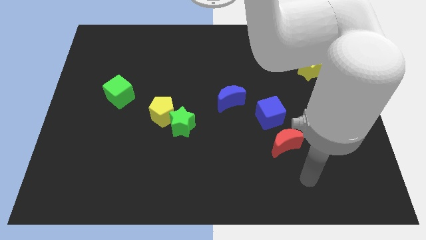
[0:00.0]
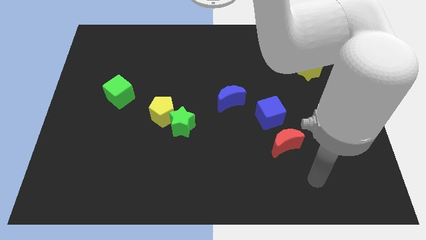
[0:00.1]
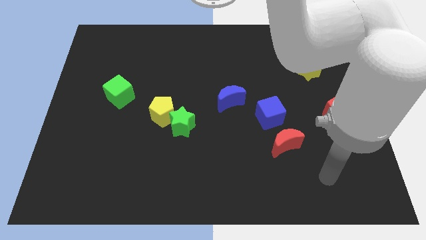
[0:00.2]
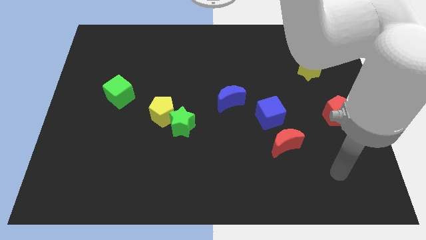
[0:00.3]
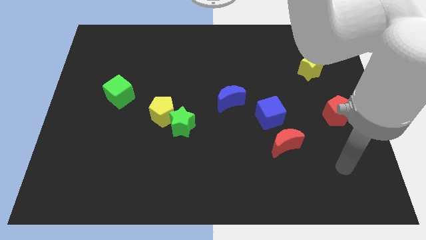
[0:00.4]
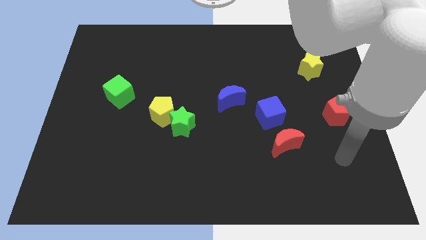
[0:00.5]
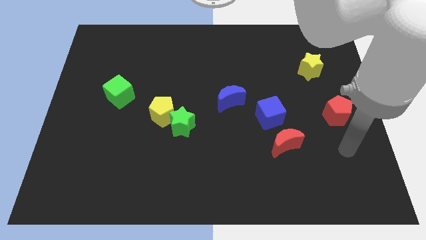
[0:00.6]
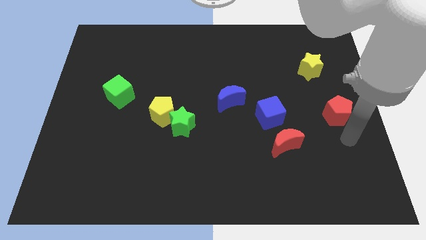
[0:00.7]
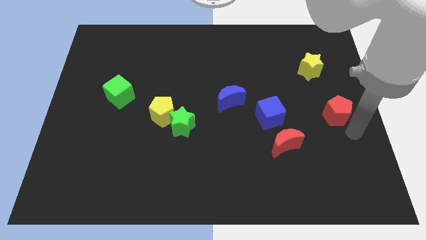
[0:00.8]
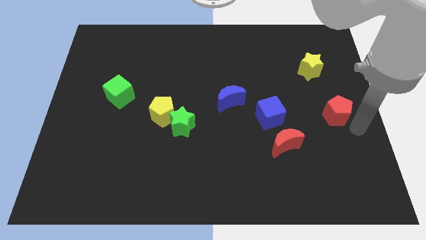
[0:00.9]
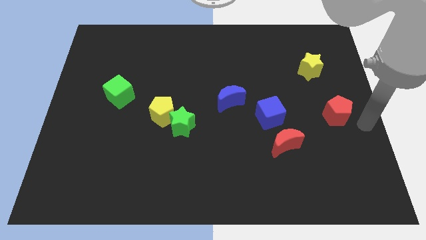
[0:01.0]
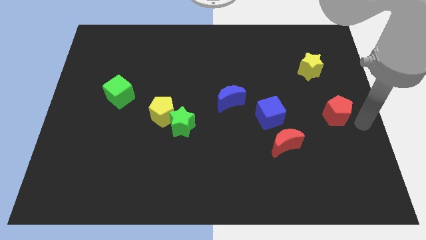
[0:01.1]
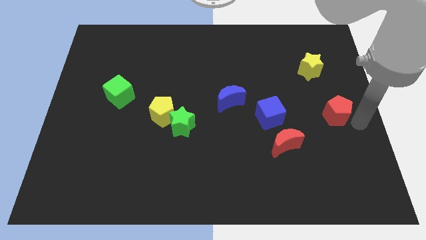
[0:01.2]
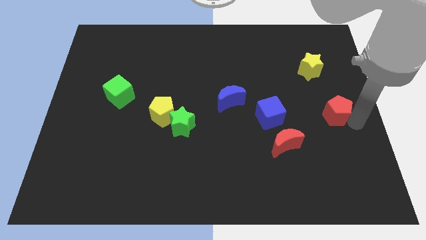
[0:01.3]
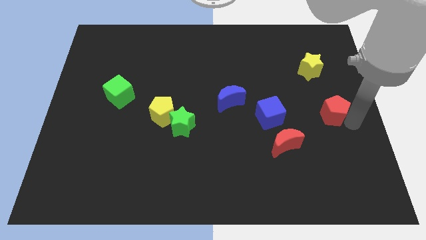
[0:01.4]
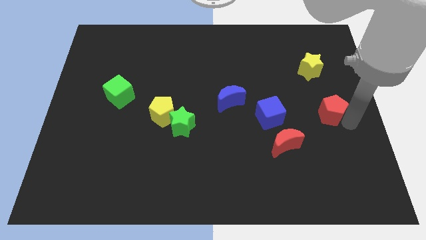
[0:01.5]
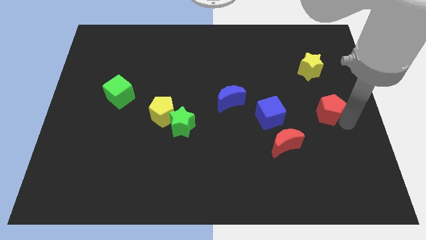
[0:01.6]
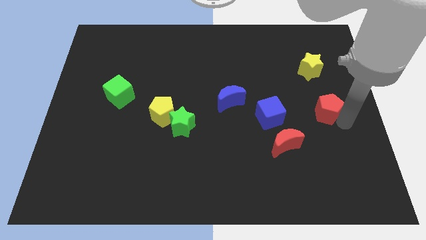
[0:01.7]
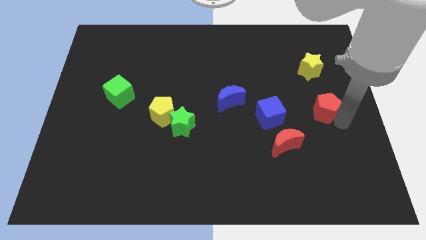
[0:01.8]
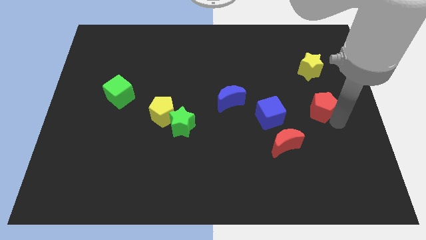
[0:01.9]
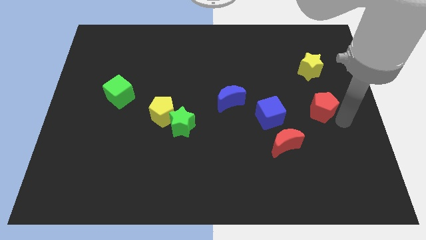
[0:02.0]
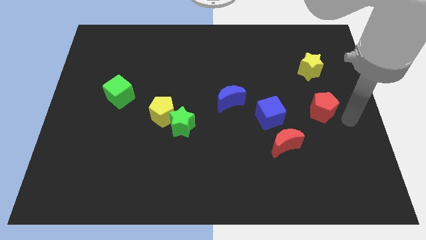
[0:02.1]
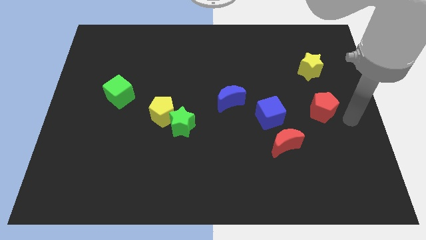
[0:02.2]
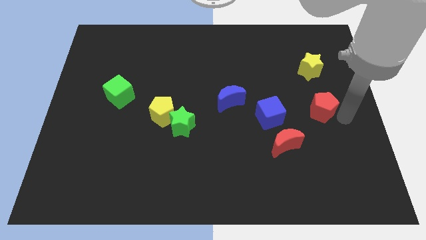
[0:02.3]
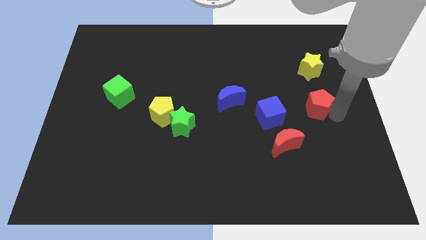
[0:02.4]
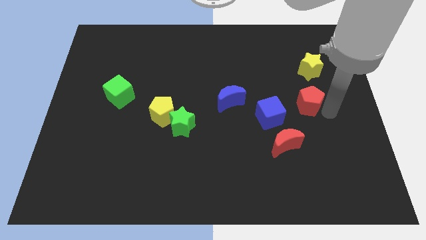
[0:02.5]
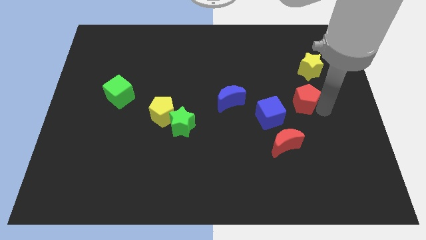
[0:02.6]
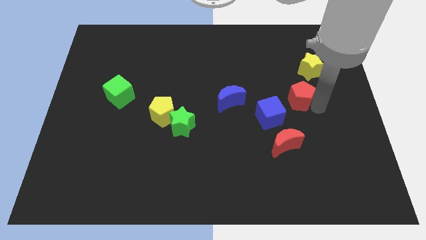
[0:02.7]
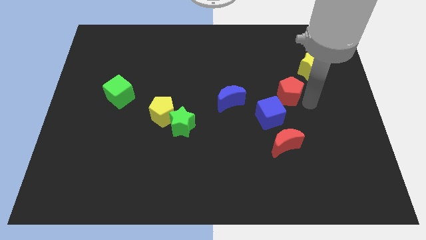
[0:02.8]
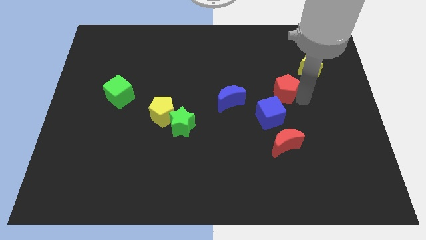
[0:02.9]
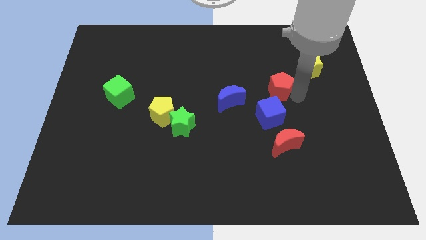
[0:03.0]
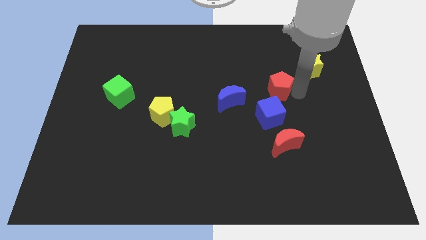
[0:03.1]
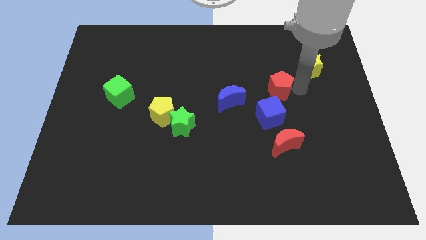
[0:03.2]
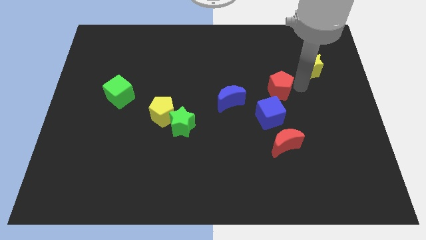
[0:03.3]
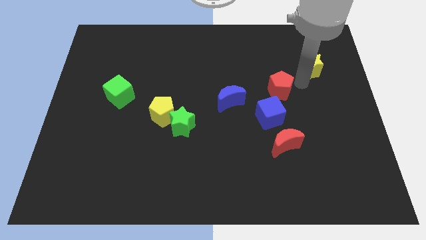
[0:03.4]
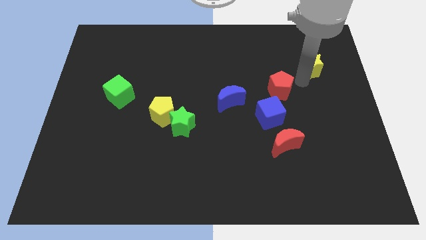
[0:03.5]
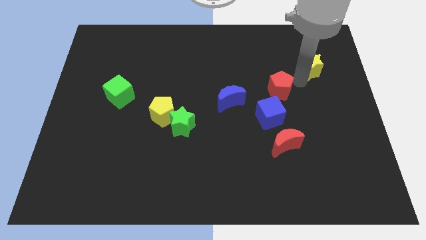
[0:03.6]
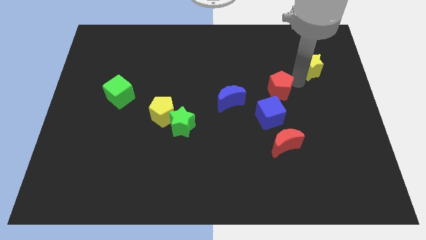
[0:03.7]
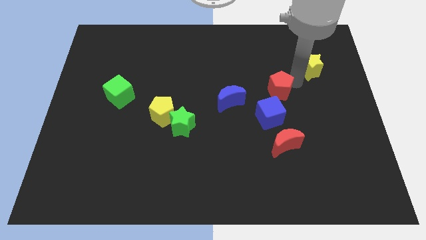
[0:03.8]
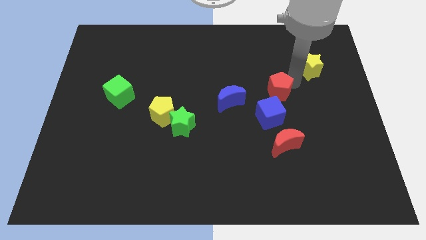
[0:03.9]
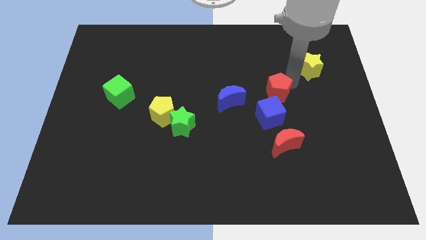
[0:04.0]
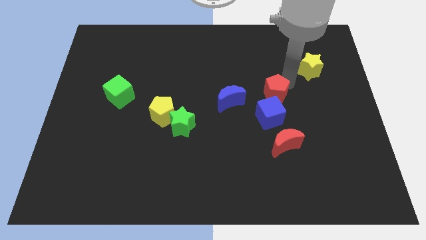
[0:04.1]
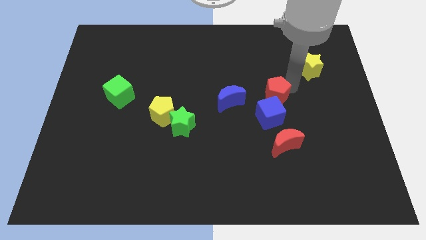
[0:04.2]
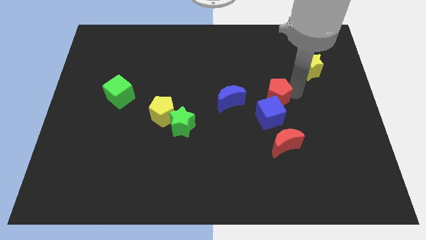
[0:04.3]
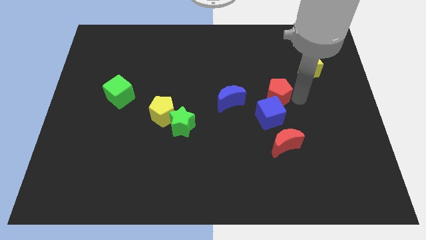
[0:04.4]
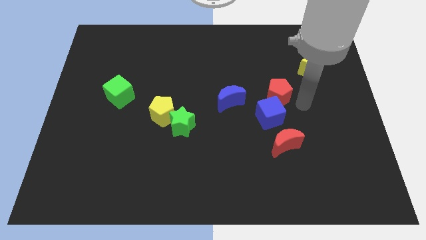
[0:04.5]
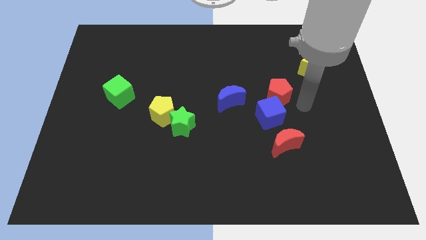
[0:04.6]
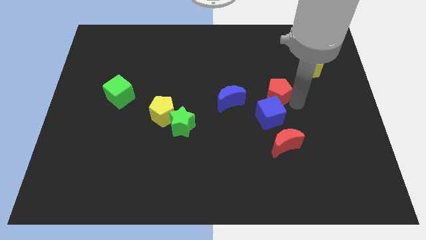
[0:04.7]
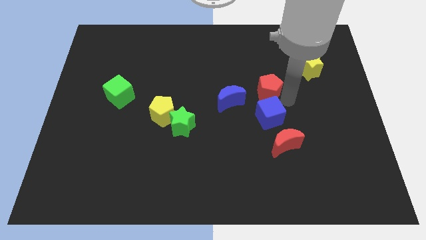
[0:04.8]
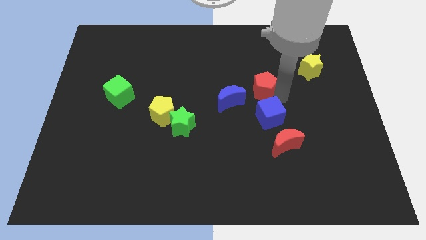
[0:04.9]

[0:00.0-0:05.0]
put the red pentagon to the center

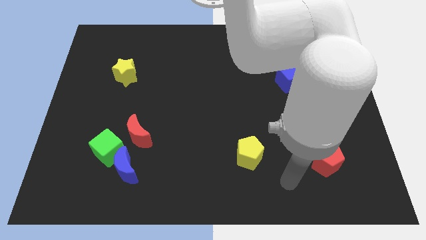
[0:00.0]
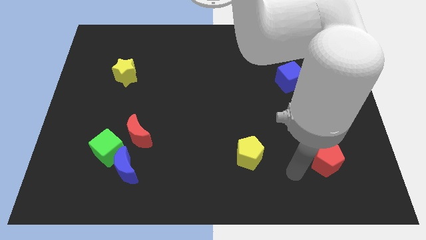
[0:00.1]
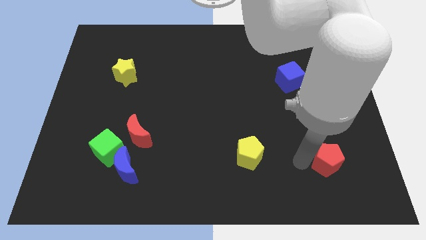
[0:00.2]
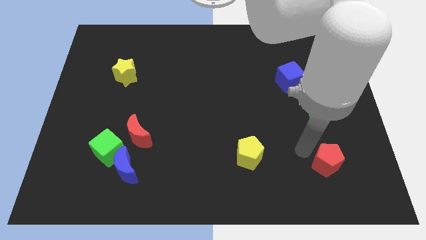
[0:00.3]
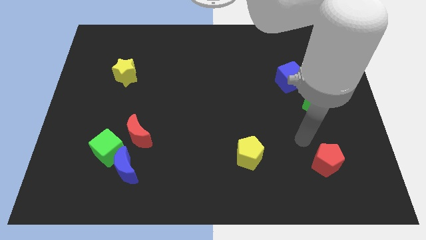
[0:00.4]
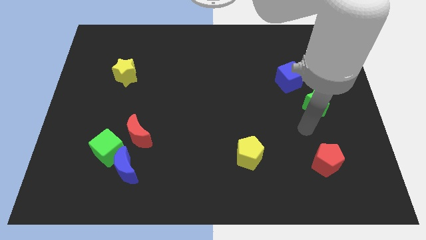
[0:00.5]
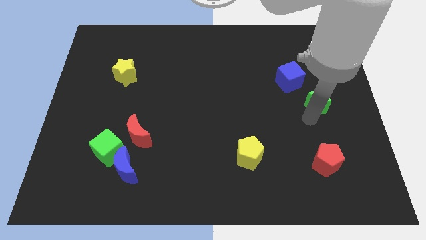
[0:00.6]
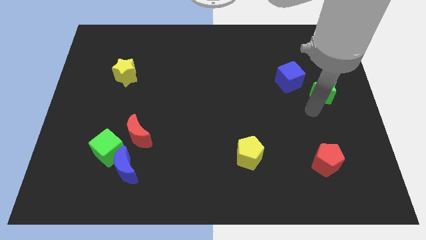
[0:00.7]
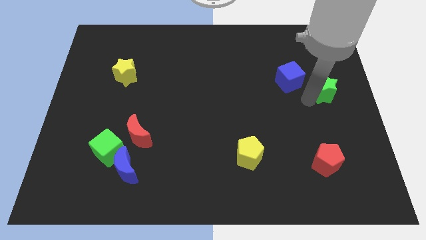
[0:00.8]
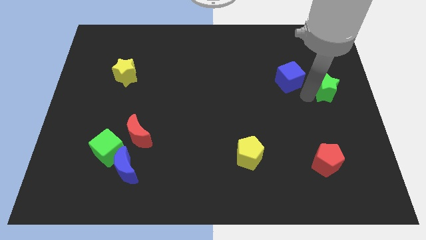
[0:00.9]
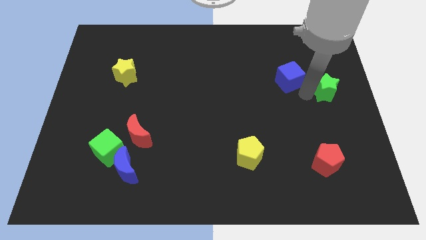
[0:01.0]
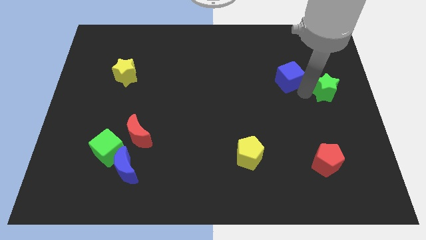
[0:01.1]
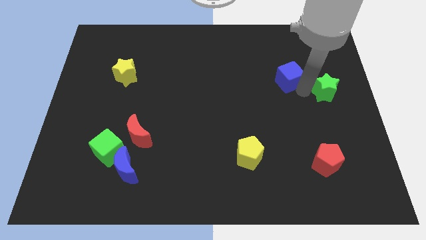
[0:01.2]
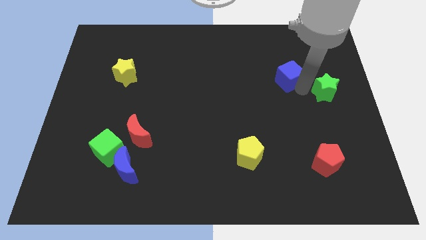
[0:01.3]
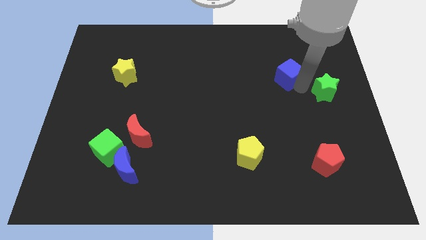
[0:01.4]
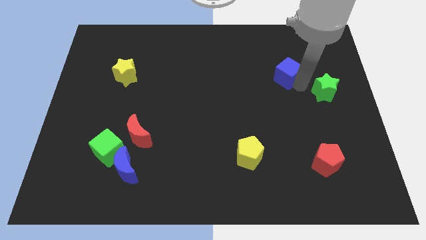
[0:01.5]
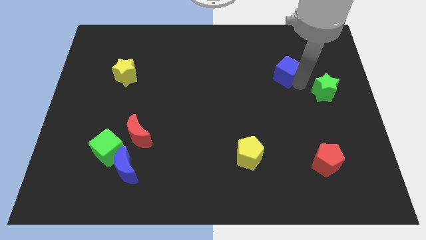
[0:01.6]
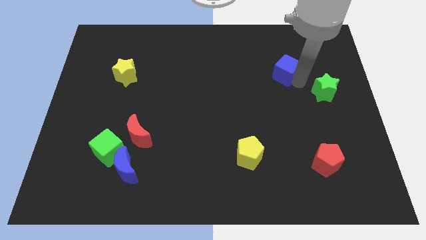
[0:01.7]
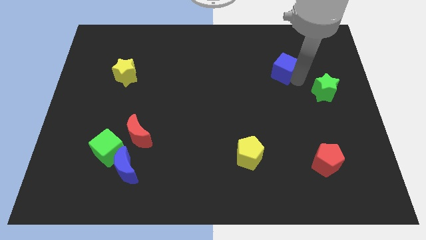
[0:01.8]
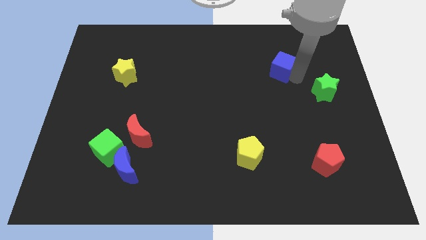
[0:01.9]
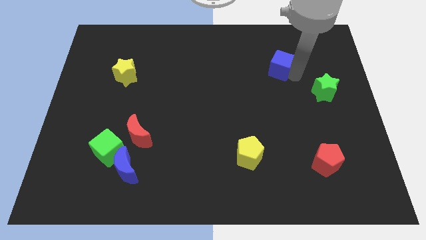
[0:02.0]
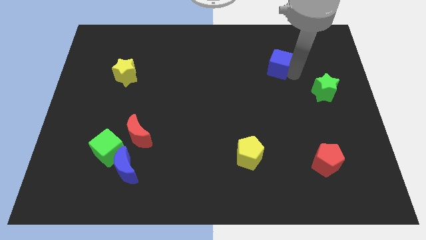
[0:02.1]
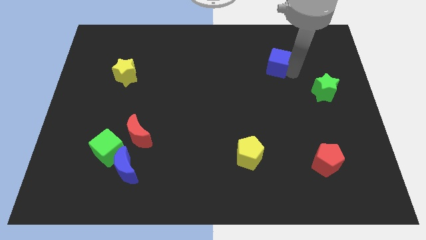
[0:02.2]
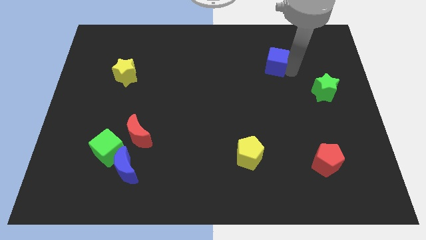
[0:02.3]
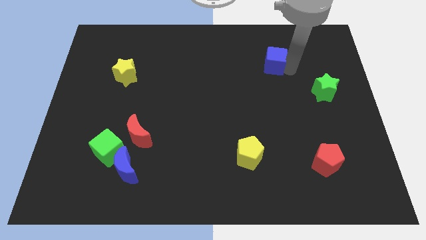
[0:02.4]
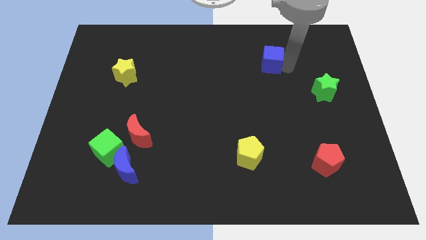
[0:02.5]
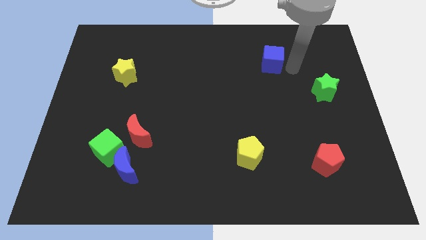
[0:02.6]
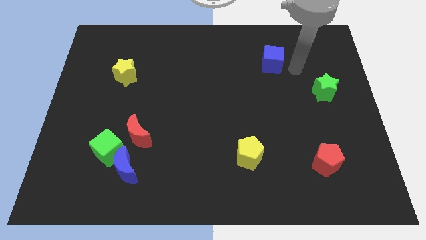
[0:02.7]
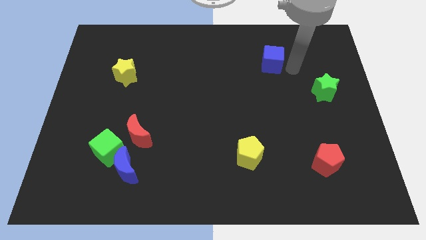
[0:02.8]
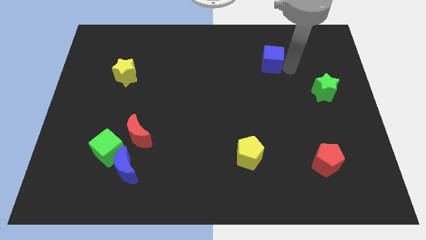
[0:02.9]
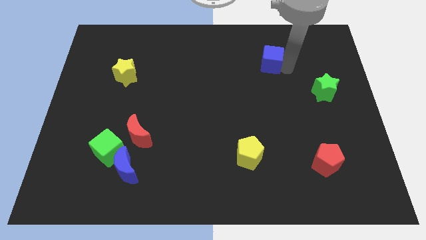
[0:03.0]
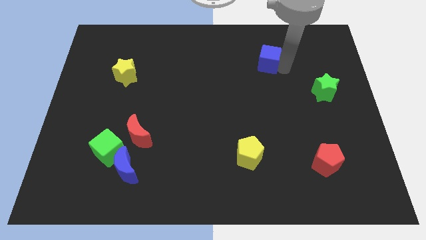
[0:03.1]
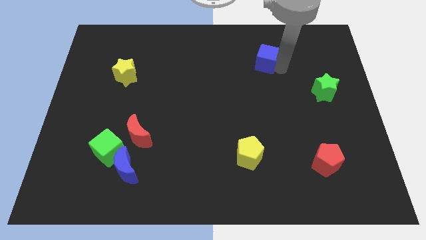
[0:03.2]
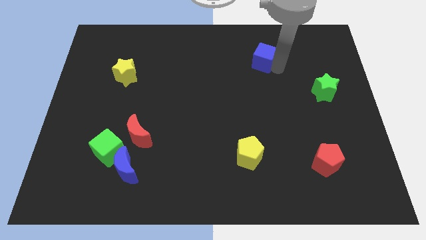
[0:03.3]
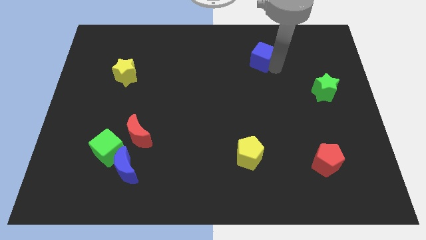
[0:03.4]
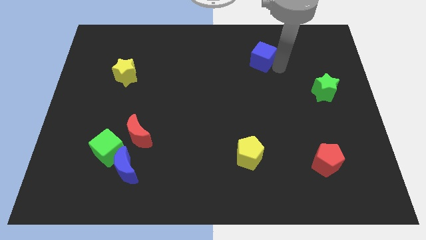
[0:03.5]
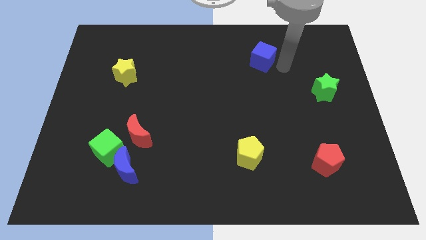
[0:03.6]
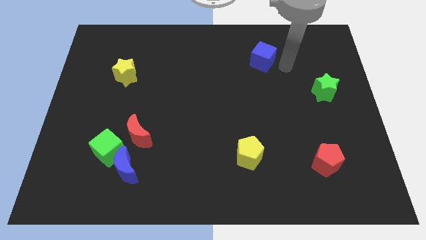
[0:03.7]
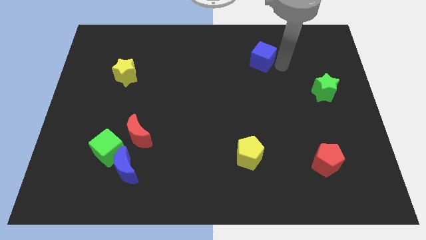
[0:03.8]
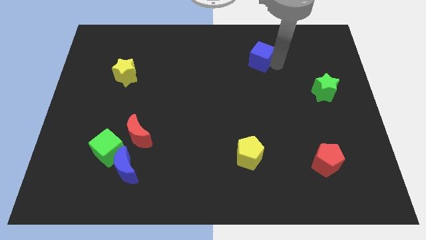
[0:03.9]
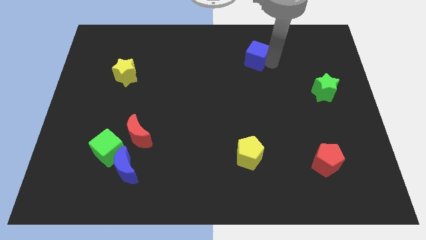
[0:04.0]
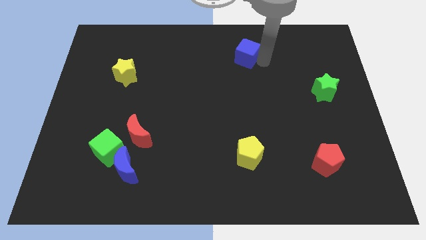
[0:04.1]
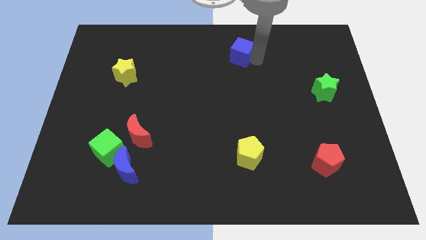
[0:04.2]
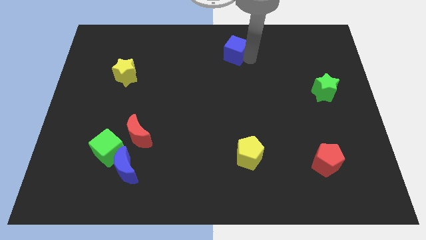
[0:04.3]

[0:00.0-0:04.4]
put the blue cube to the top side
